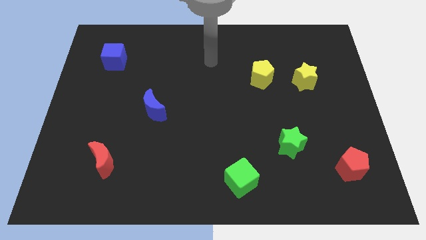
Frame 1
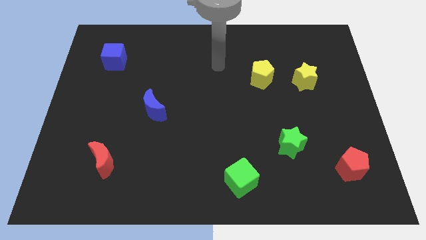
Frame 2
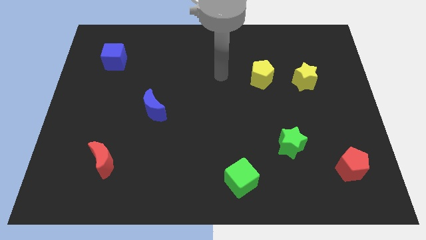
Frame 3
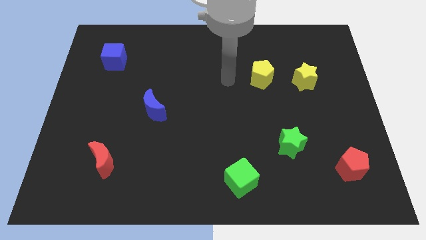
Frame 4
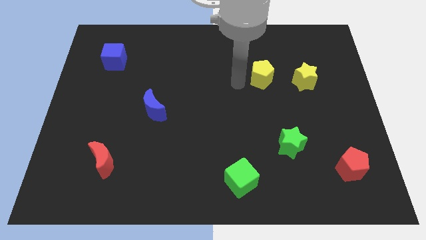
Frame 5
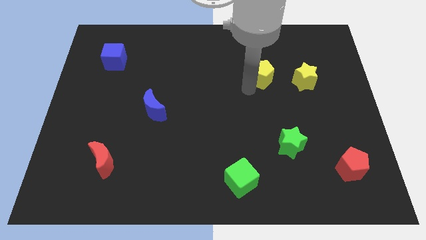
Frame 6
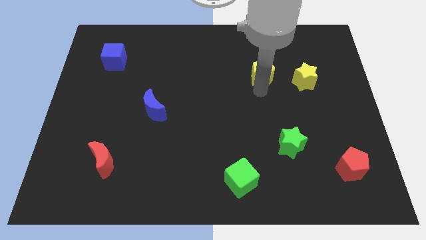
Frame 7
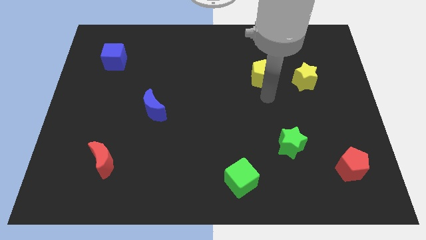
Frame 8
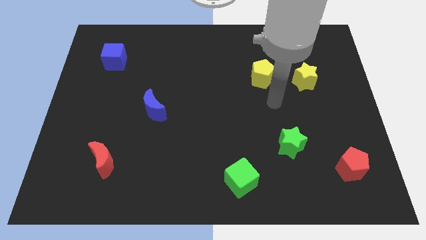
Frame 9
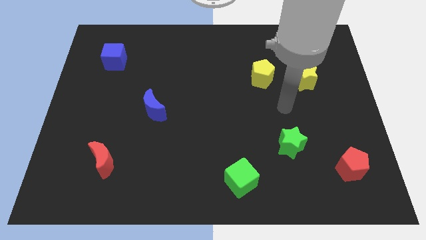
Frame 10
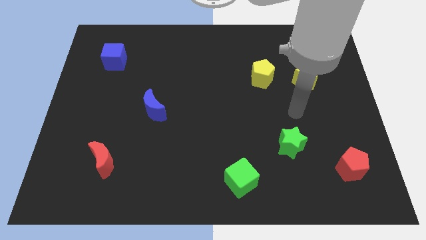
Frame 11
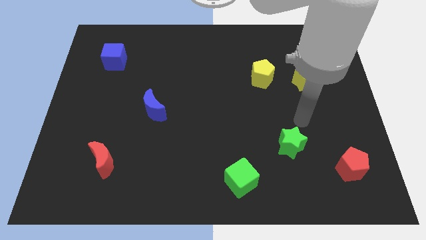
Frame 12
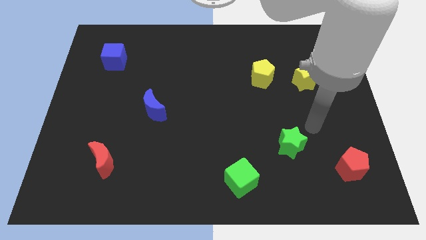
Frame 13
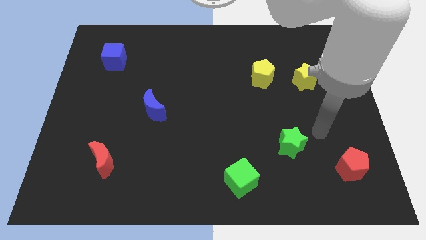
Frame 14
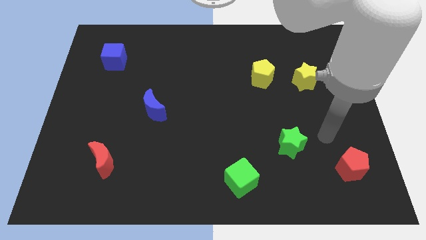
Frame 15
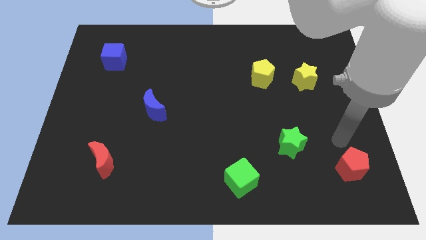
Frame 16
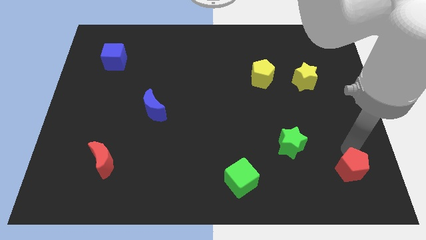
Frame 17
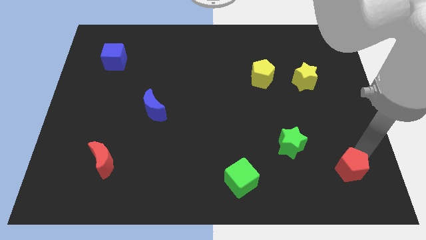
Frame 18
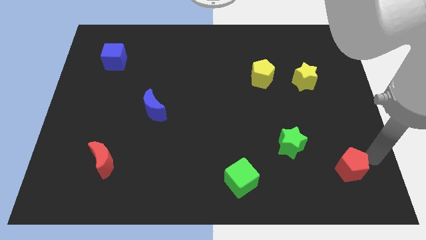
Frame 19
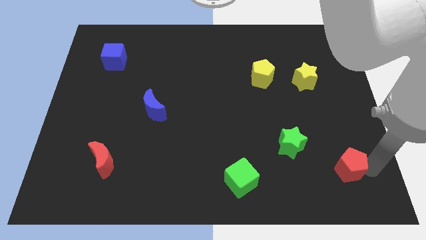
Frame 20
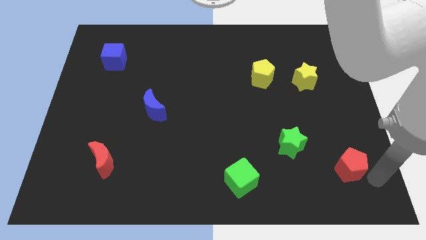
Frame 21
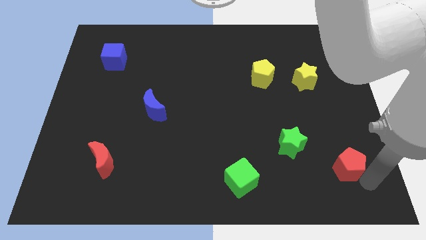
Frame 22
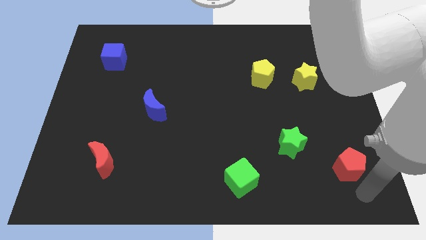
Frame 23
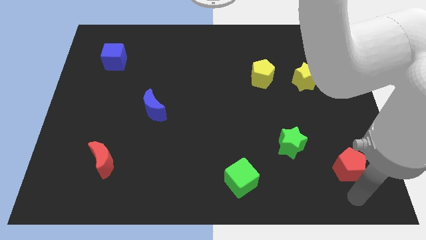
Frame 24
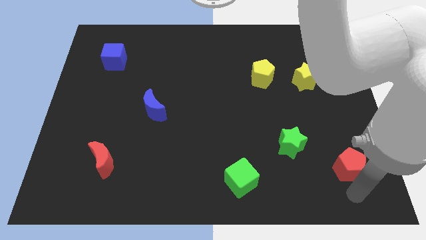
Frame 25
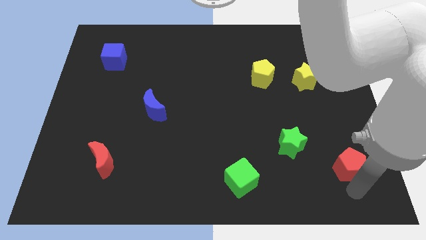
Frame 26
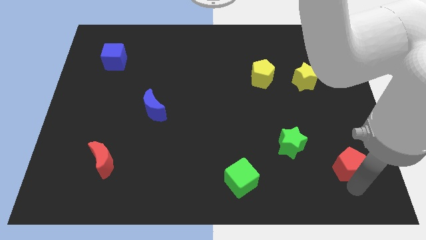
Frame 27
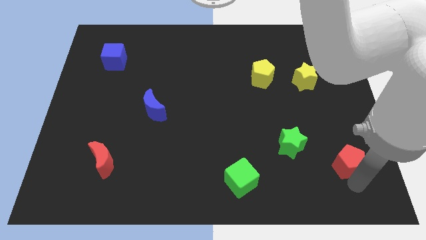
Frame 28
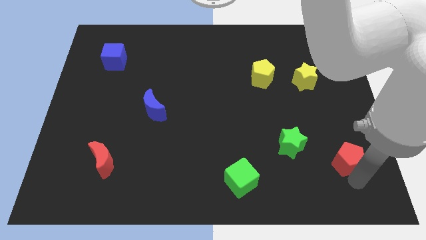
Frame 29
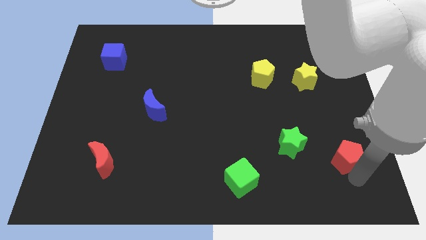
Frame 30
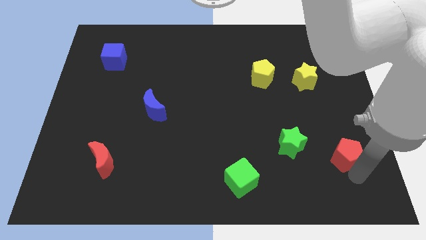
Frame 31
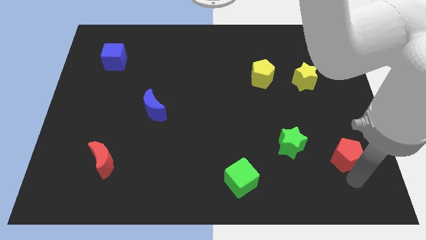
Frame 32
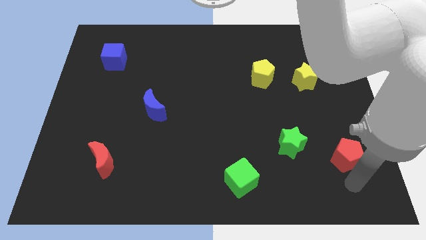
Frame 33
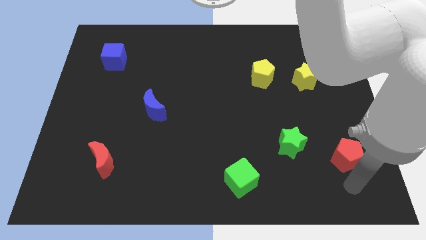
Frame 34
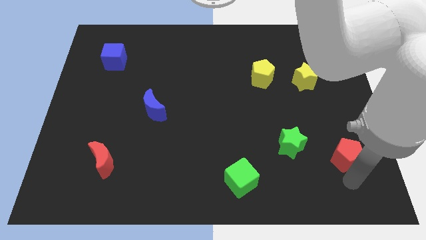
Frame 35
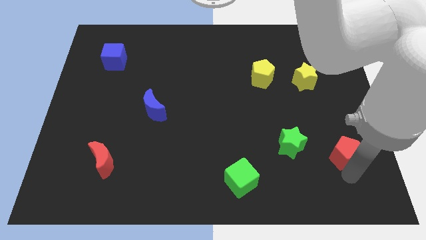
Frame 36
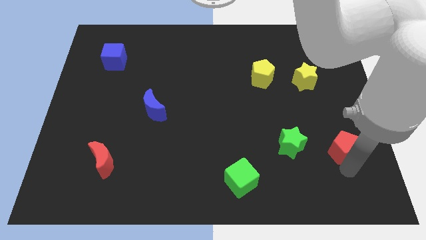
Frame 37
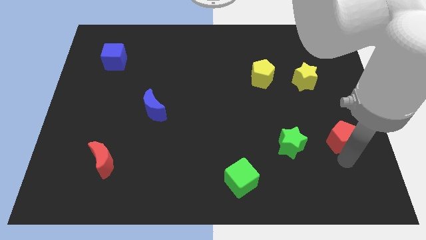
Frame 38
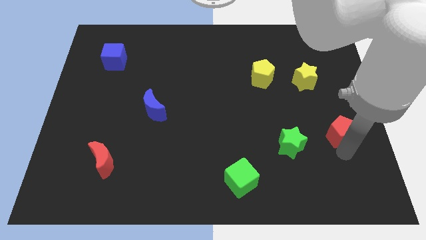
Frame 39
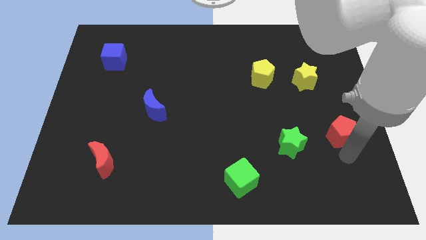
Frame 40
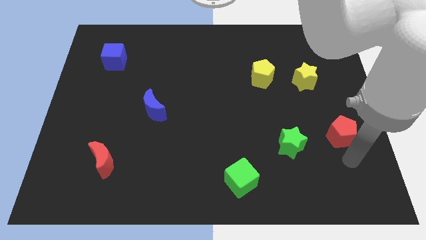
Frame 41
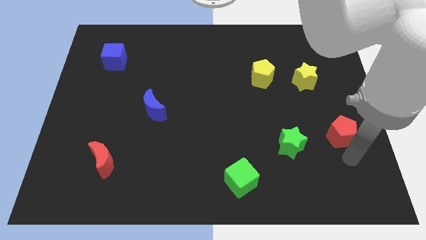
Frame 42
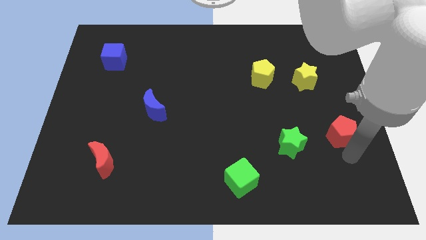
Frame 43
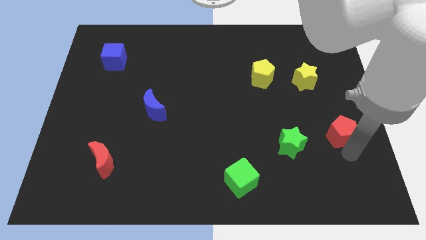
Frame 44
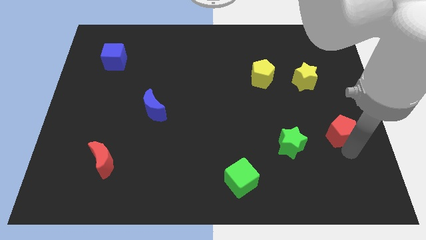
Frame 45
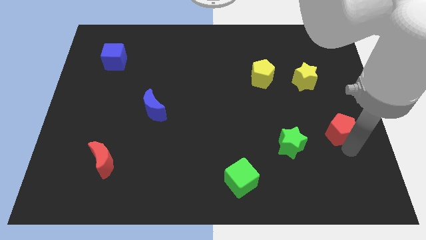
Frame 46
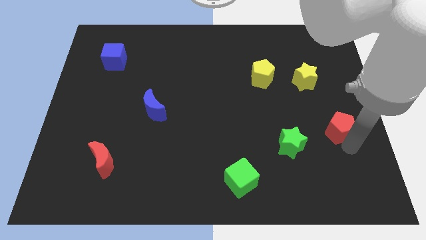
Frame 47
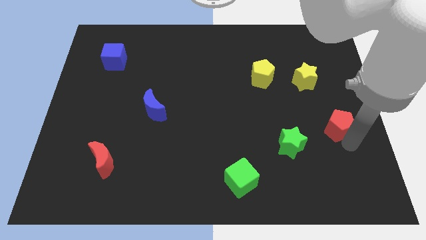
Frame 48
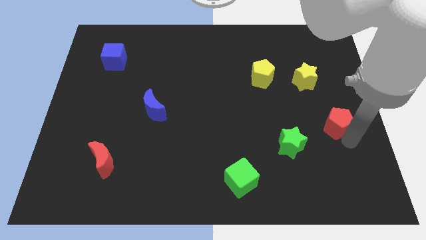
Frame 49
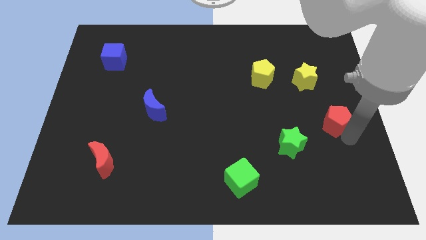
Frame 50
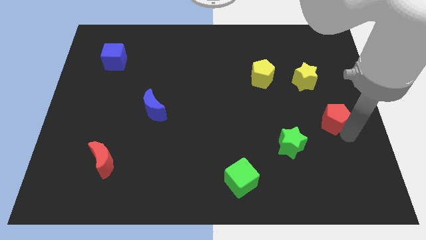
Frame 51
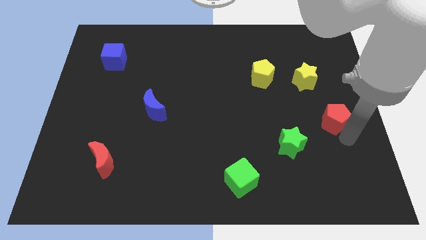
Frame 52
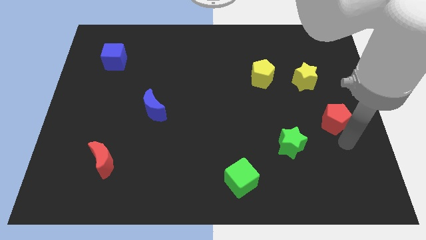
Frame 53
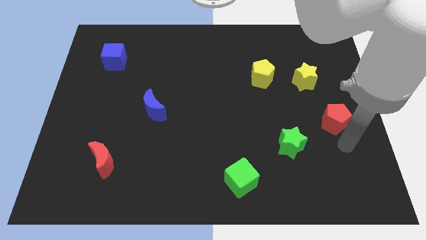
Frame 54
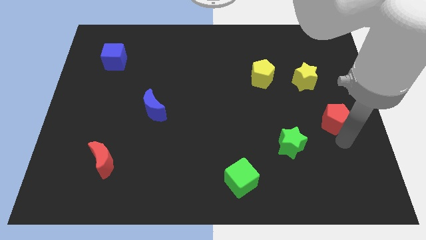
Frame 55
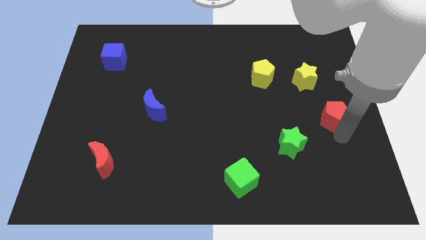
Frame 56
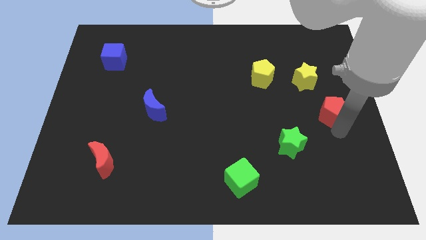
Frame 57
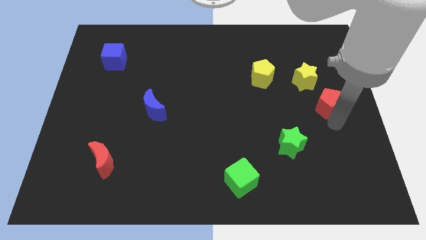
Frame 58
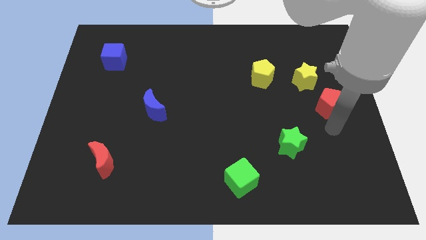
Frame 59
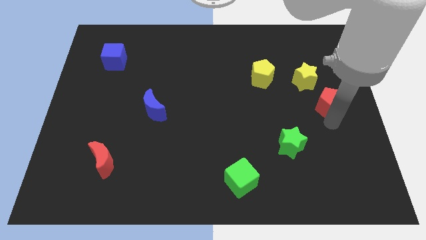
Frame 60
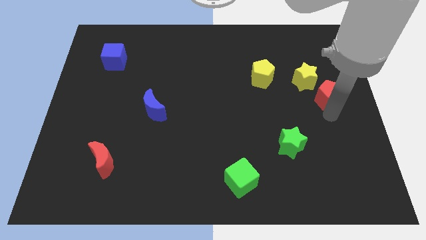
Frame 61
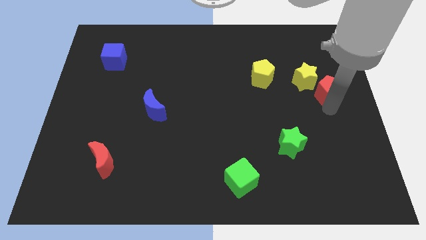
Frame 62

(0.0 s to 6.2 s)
push the red pentagon up

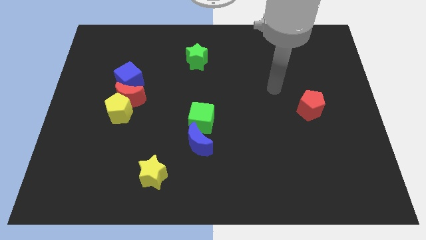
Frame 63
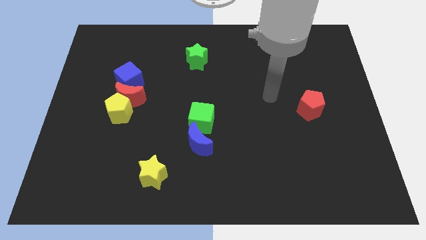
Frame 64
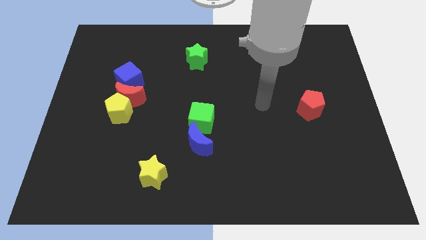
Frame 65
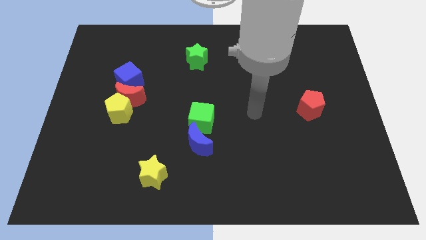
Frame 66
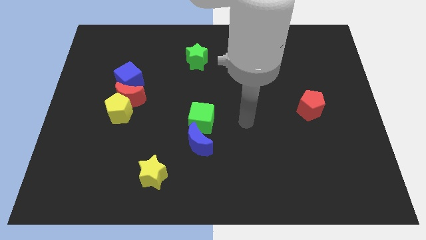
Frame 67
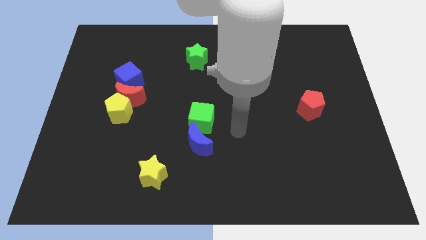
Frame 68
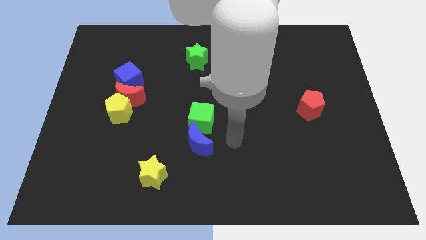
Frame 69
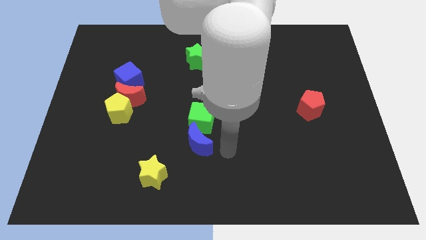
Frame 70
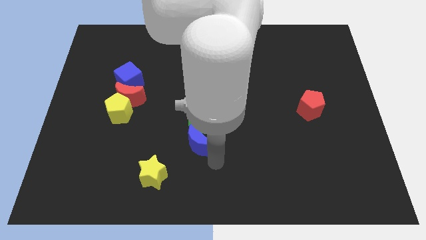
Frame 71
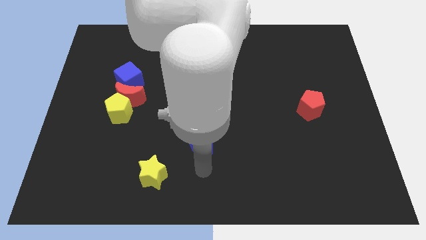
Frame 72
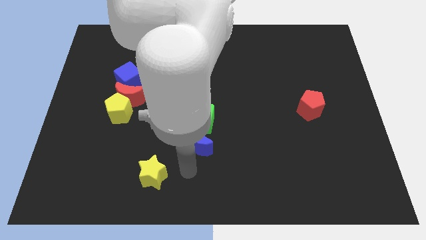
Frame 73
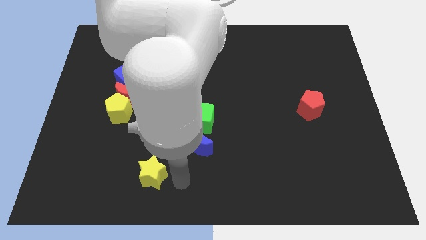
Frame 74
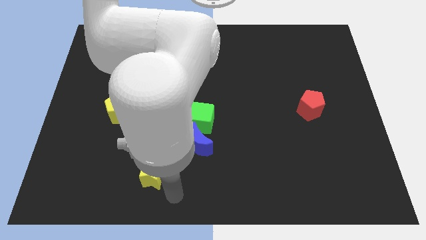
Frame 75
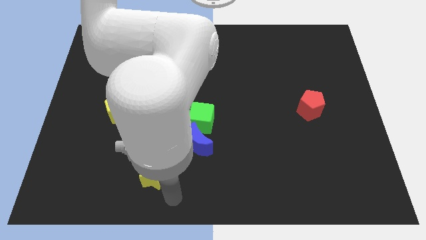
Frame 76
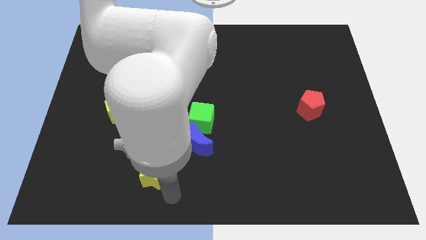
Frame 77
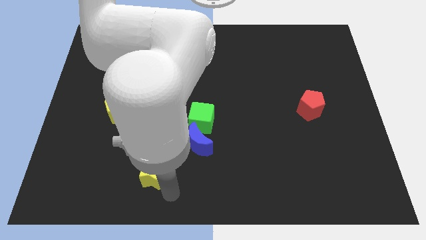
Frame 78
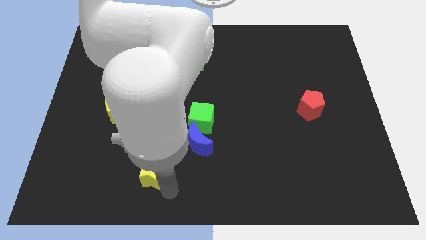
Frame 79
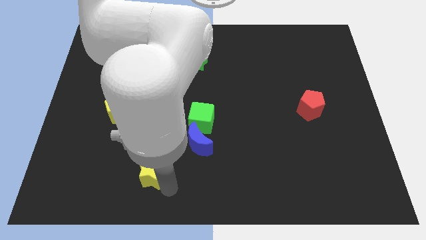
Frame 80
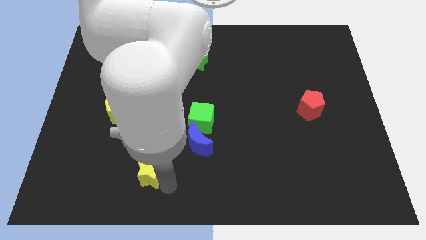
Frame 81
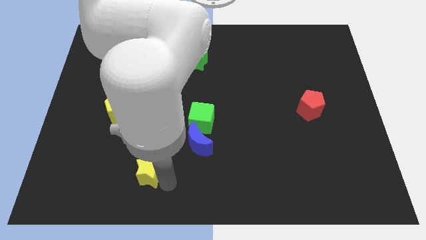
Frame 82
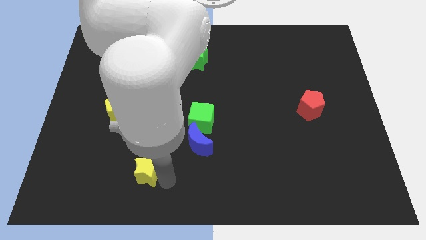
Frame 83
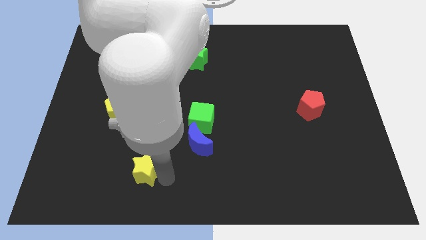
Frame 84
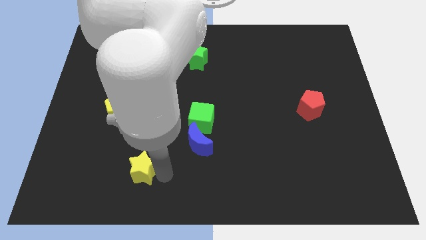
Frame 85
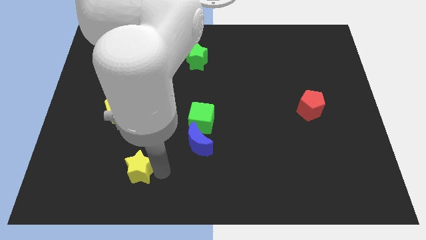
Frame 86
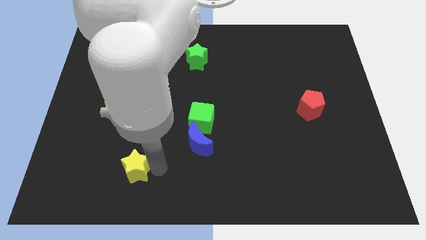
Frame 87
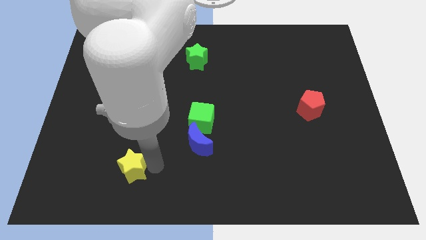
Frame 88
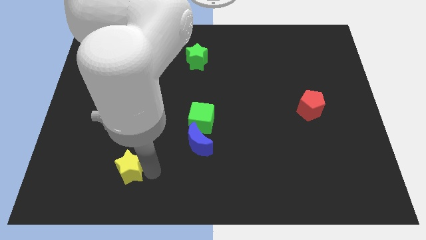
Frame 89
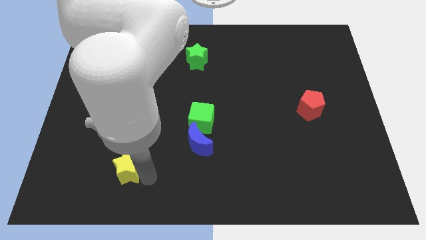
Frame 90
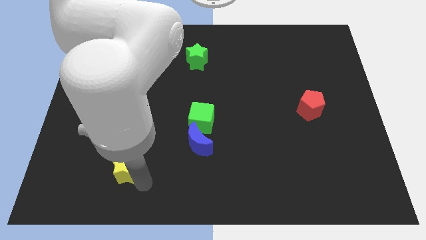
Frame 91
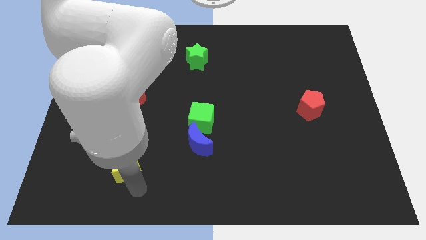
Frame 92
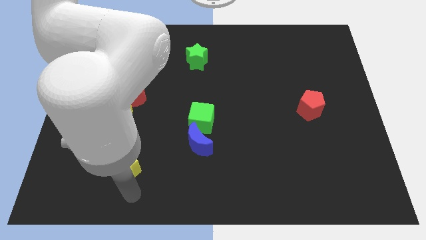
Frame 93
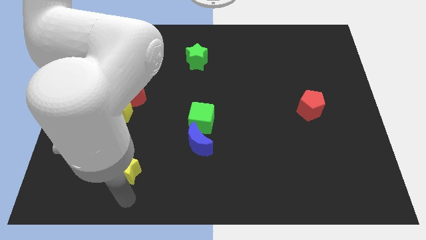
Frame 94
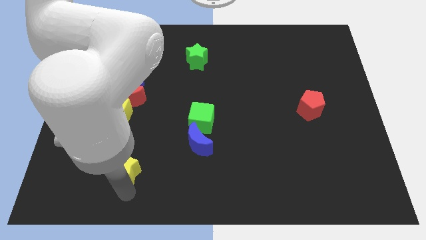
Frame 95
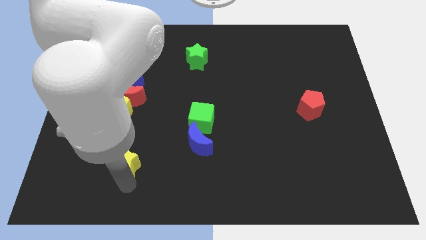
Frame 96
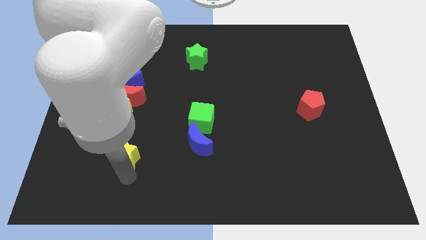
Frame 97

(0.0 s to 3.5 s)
slightly slide the yellow star upwards and then left
